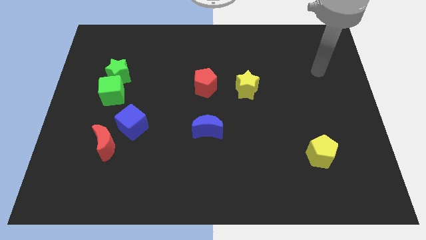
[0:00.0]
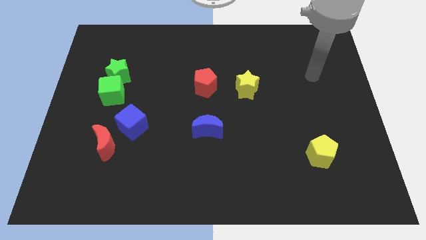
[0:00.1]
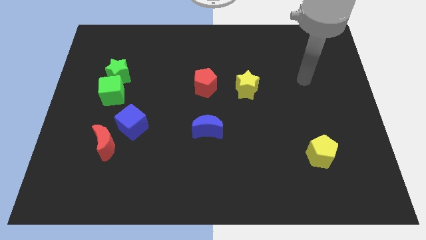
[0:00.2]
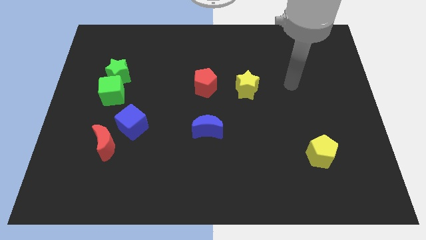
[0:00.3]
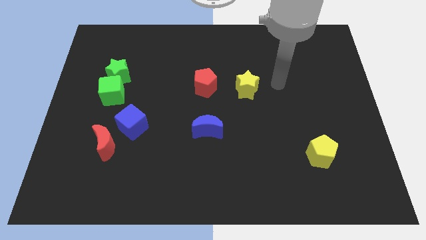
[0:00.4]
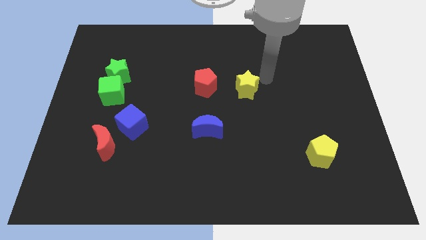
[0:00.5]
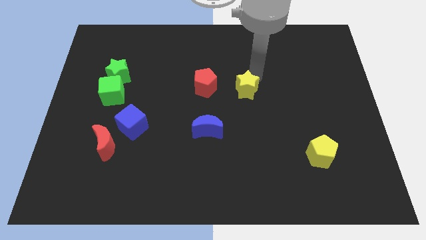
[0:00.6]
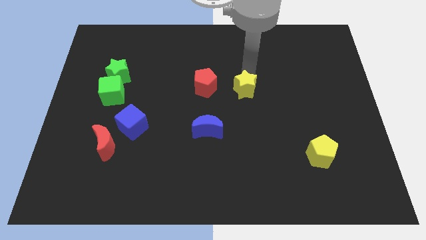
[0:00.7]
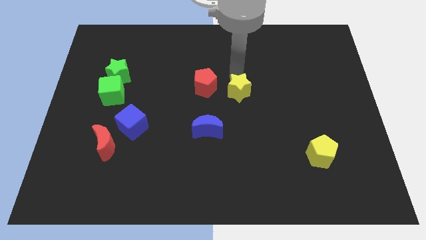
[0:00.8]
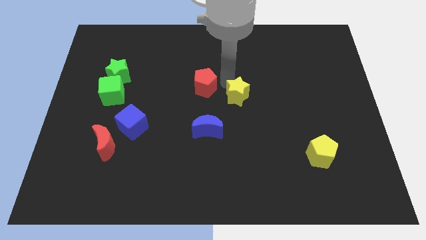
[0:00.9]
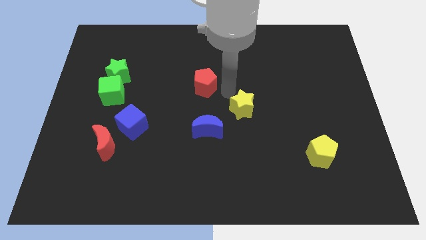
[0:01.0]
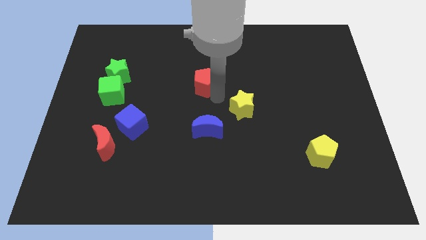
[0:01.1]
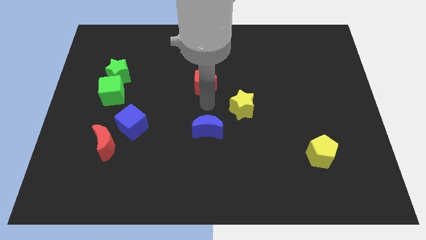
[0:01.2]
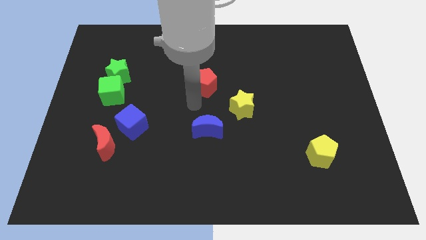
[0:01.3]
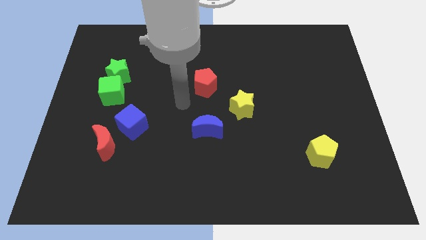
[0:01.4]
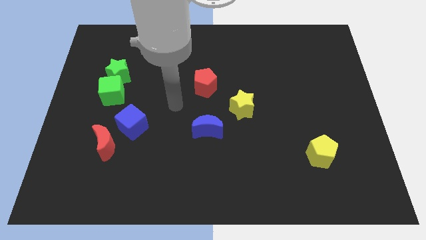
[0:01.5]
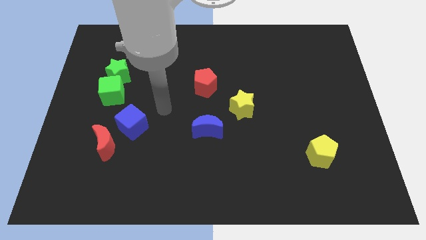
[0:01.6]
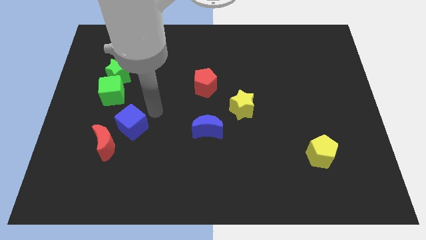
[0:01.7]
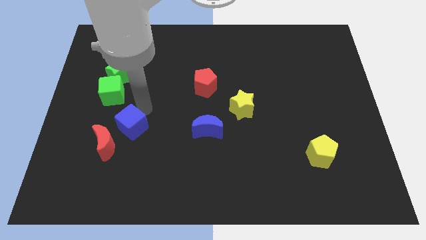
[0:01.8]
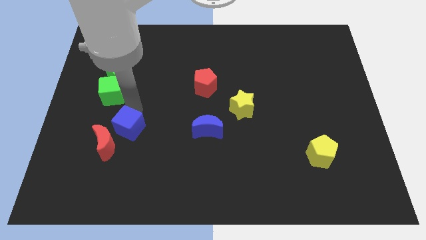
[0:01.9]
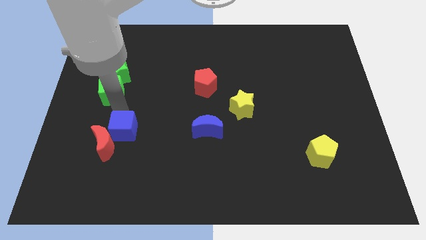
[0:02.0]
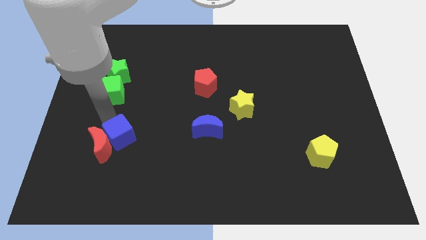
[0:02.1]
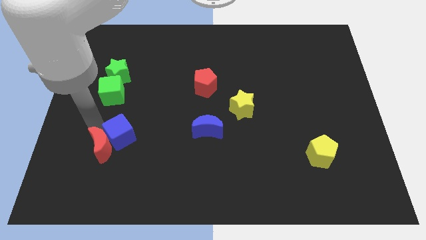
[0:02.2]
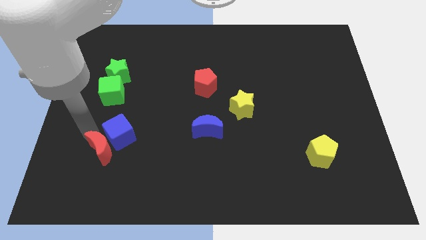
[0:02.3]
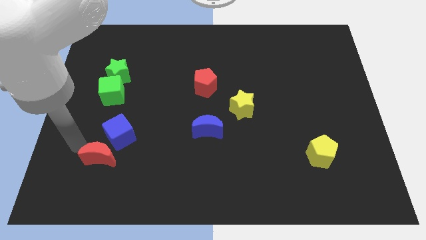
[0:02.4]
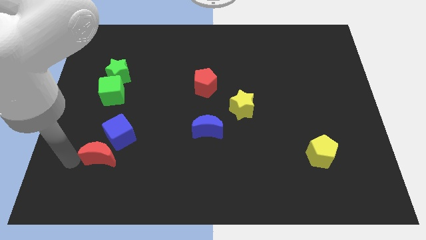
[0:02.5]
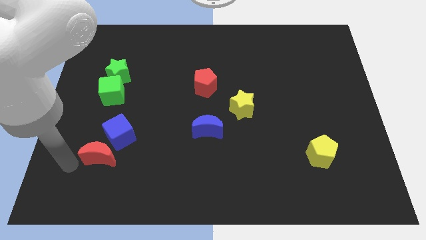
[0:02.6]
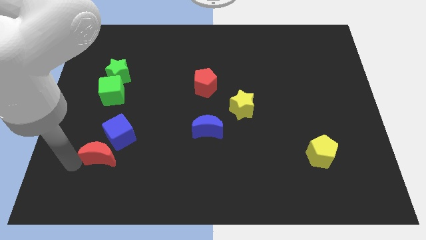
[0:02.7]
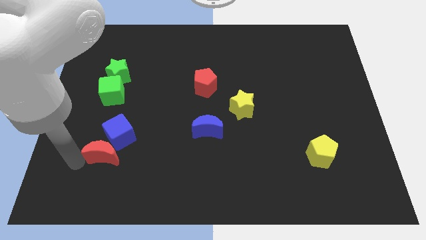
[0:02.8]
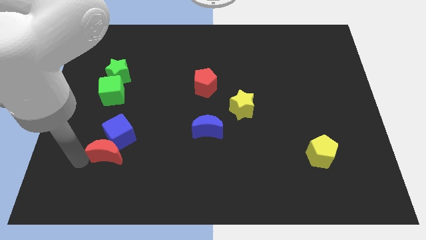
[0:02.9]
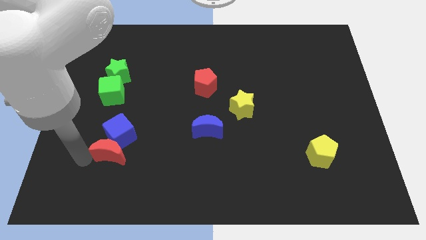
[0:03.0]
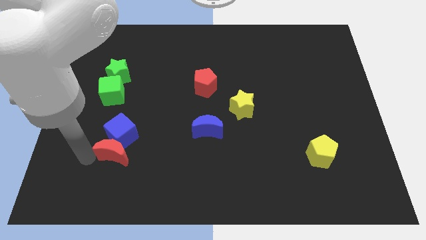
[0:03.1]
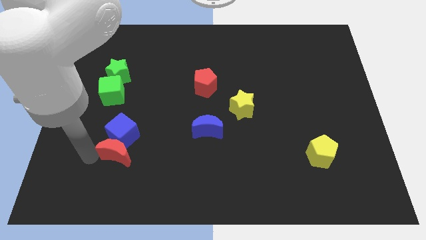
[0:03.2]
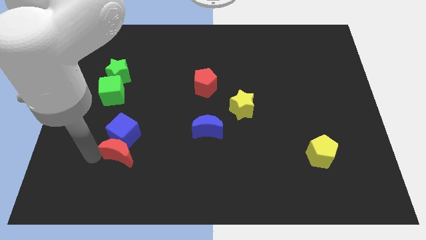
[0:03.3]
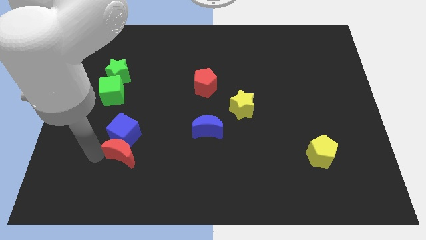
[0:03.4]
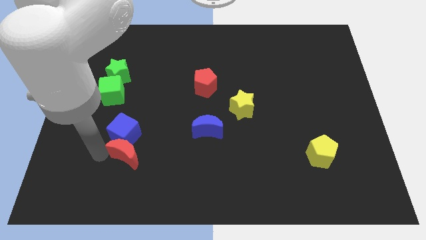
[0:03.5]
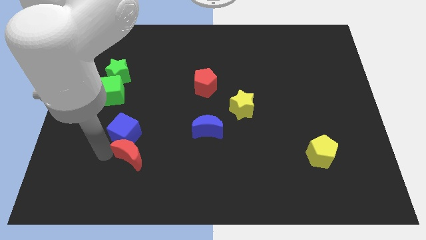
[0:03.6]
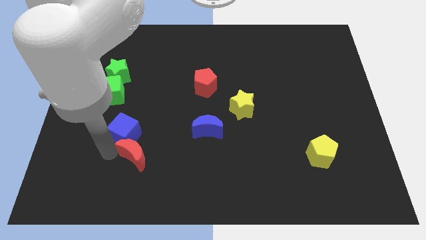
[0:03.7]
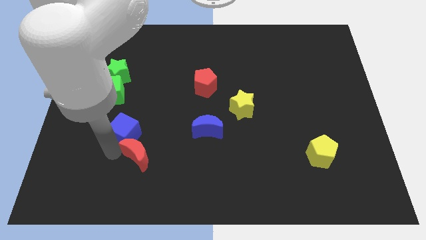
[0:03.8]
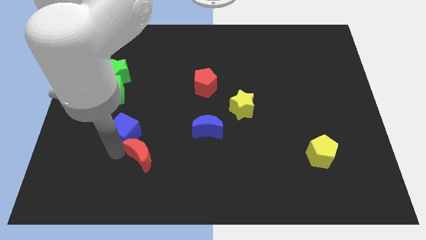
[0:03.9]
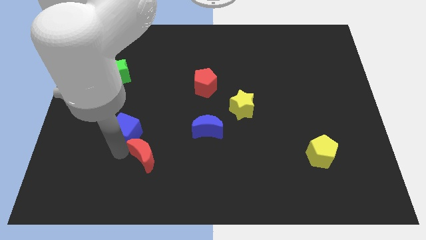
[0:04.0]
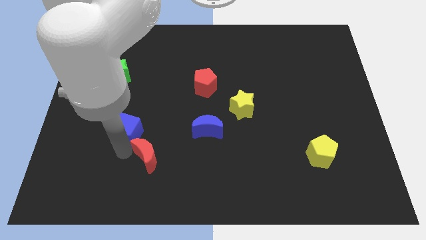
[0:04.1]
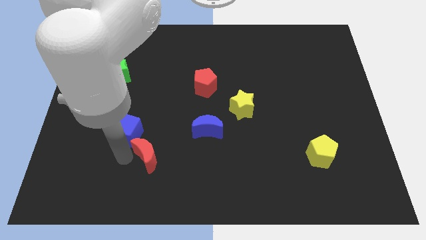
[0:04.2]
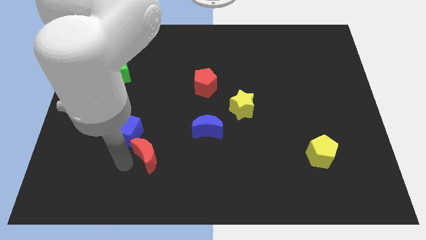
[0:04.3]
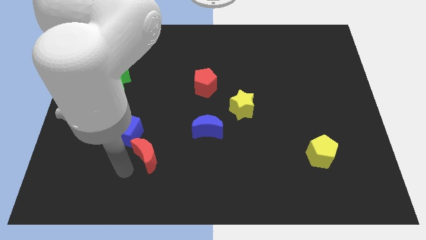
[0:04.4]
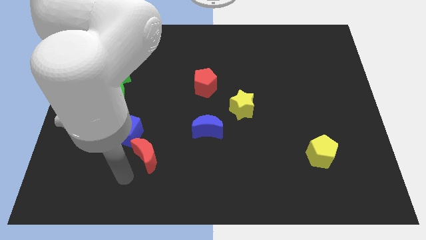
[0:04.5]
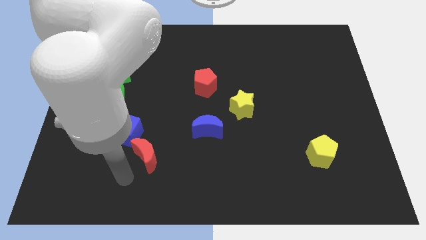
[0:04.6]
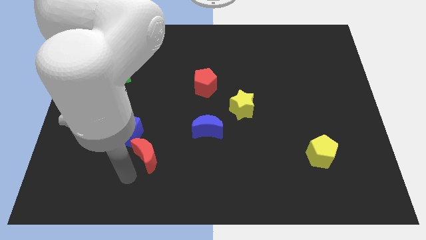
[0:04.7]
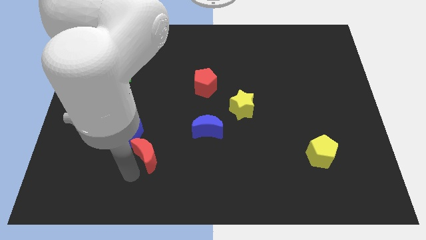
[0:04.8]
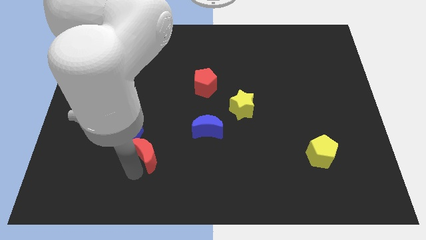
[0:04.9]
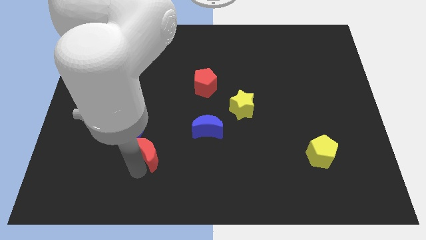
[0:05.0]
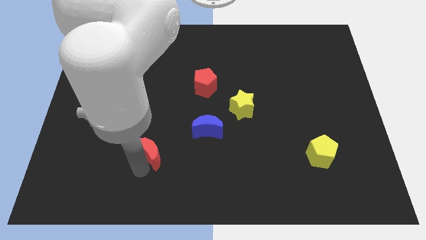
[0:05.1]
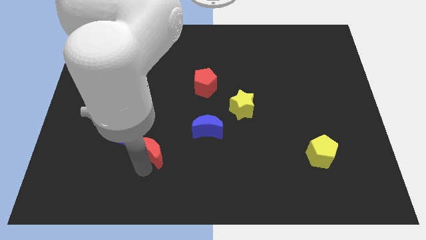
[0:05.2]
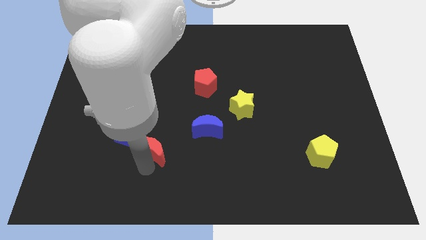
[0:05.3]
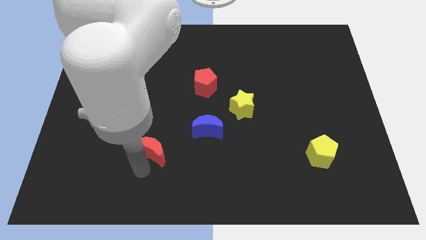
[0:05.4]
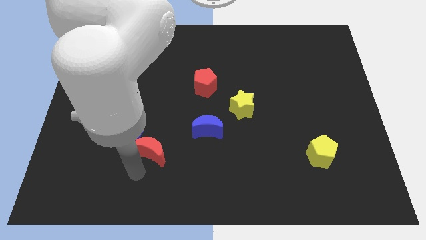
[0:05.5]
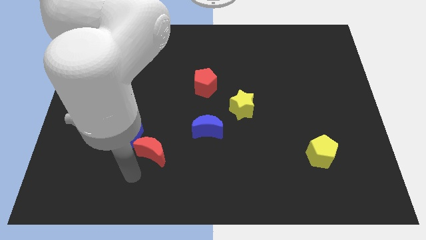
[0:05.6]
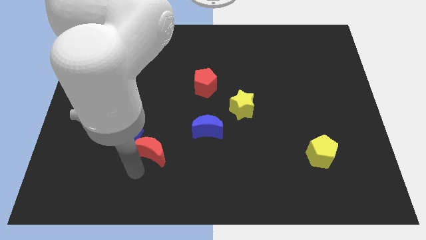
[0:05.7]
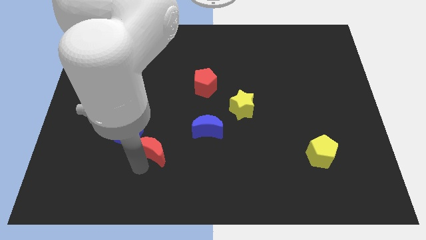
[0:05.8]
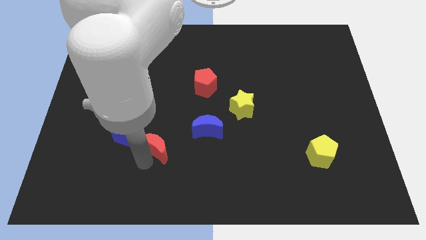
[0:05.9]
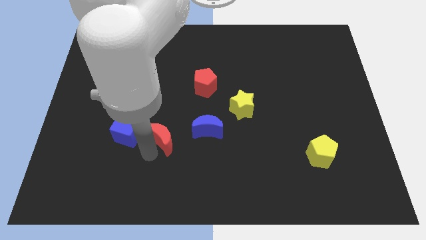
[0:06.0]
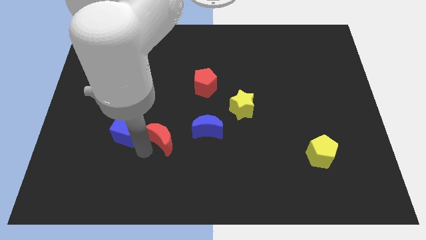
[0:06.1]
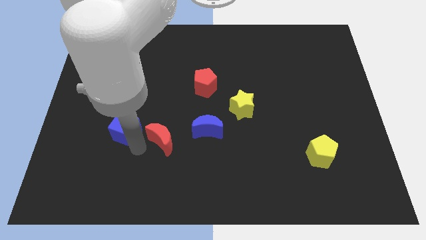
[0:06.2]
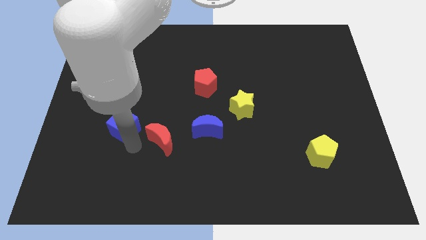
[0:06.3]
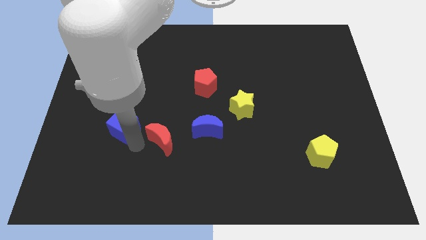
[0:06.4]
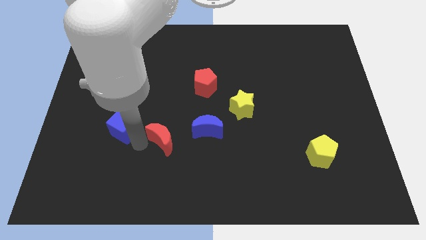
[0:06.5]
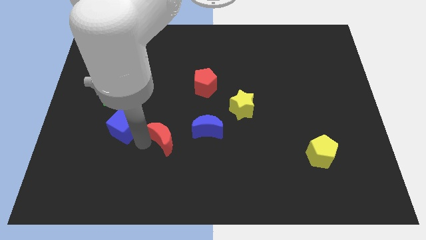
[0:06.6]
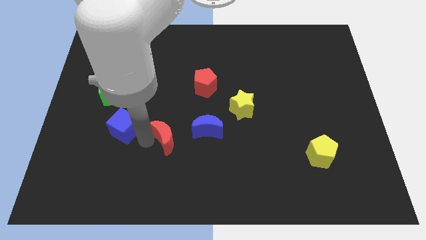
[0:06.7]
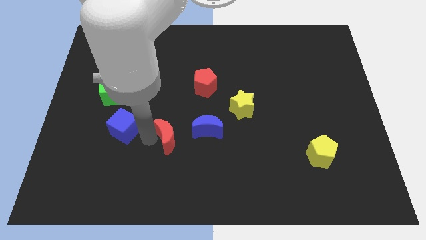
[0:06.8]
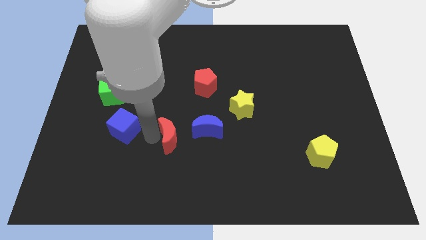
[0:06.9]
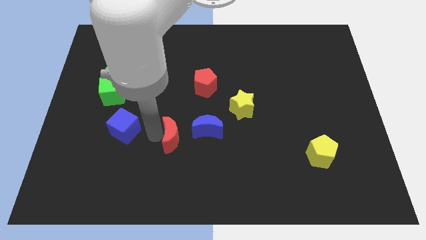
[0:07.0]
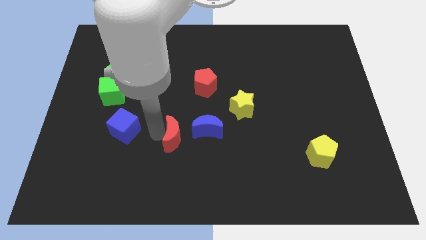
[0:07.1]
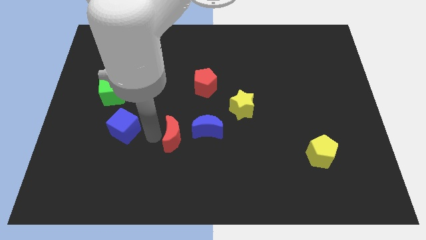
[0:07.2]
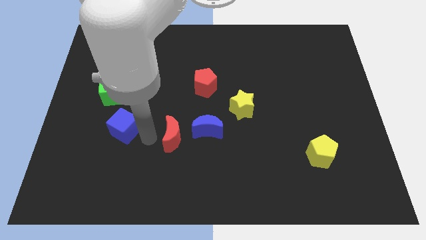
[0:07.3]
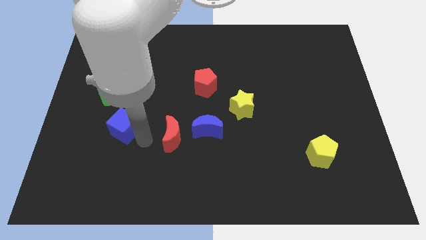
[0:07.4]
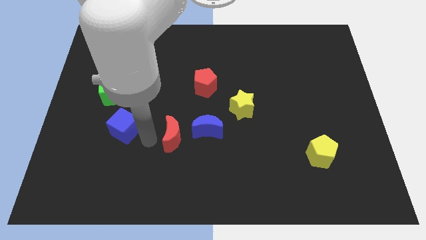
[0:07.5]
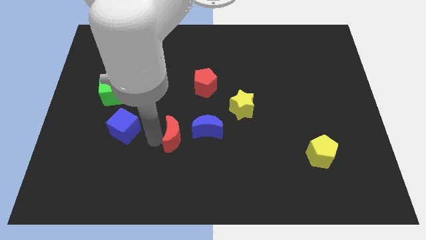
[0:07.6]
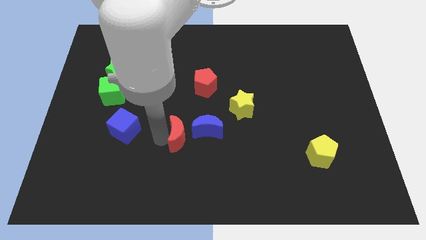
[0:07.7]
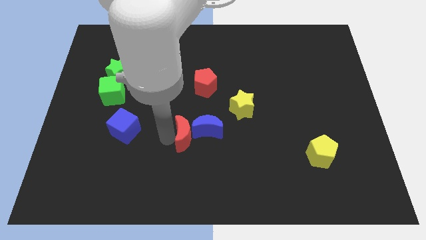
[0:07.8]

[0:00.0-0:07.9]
push the red moon to the blue moon
